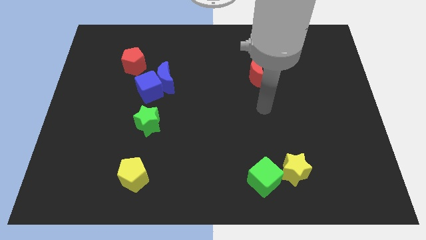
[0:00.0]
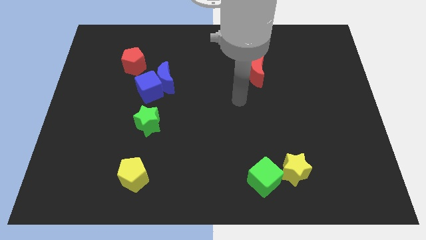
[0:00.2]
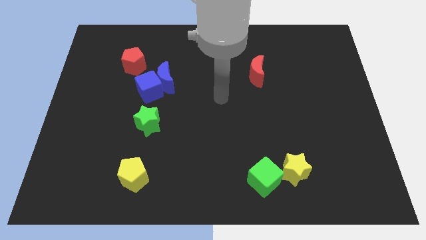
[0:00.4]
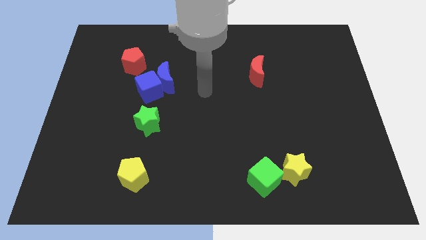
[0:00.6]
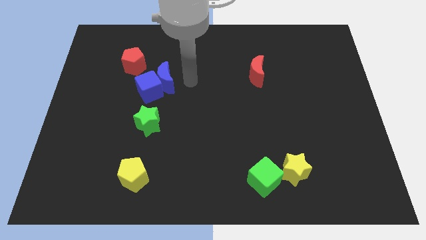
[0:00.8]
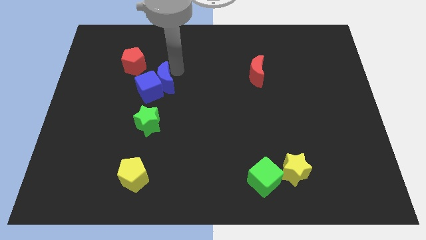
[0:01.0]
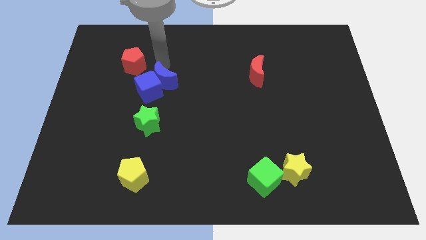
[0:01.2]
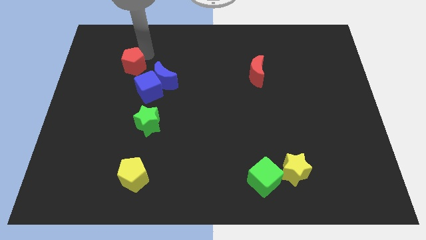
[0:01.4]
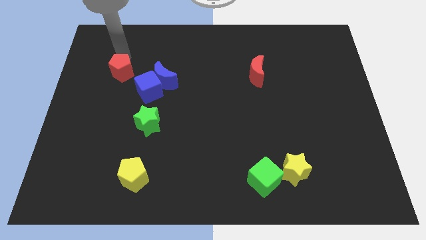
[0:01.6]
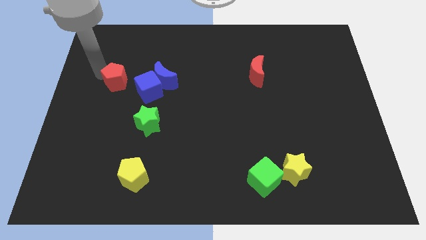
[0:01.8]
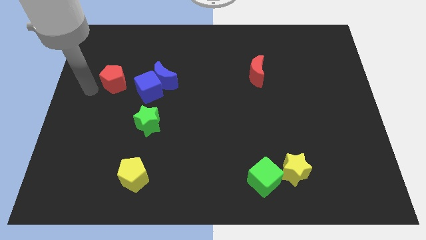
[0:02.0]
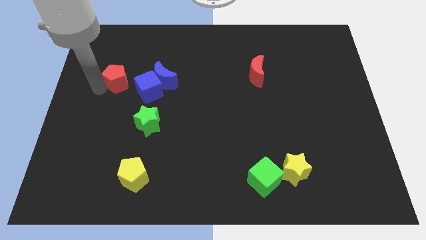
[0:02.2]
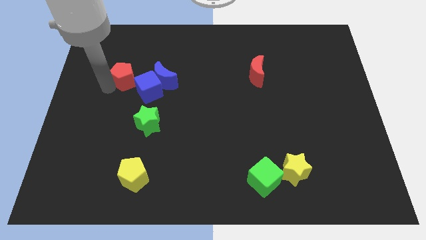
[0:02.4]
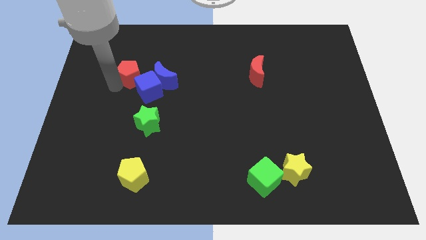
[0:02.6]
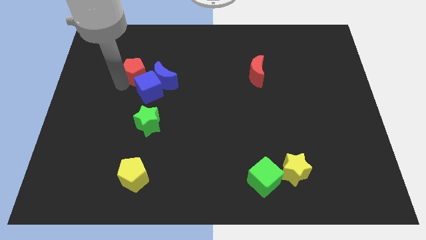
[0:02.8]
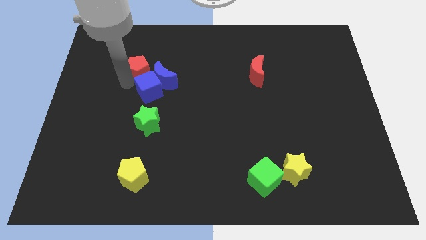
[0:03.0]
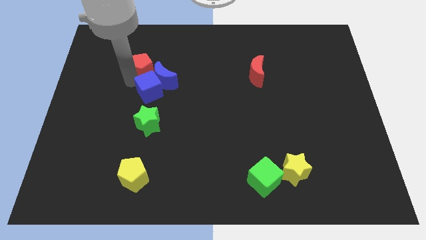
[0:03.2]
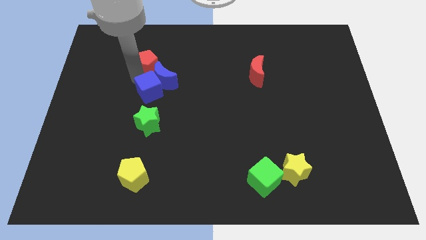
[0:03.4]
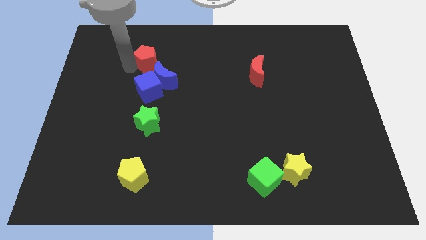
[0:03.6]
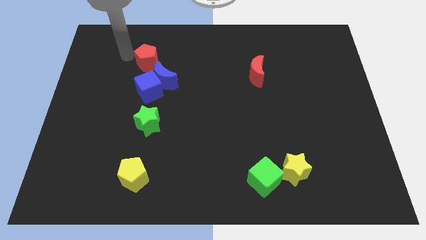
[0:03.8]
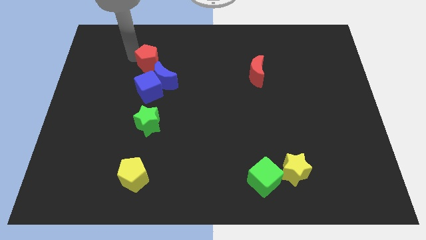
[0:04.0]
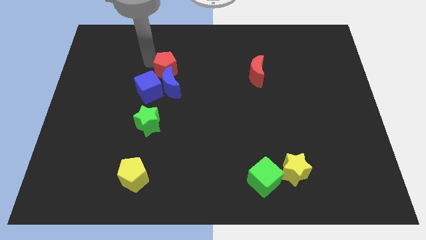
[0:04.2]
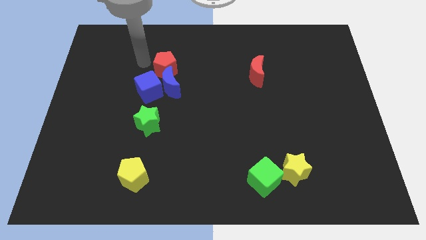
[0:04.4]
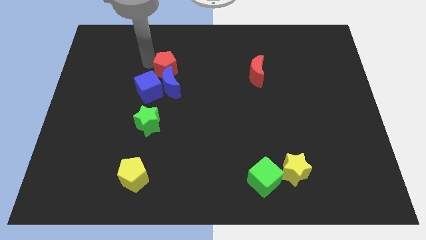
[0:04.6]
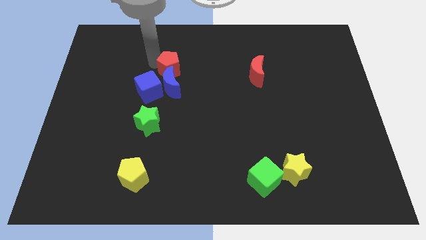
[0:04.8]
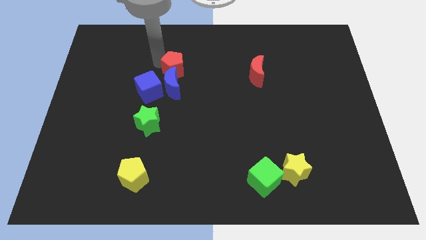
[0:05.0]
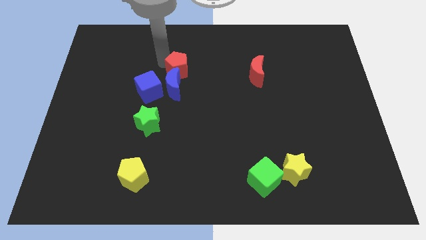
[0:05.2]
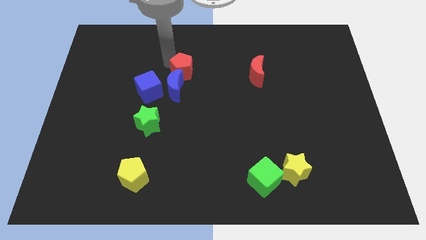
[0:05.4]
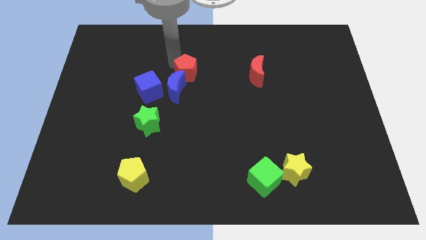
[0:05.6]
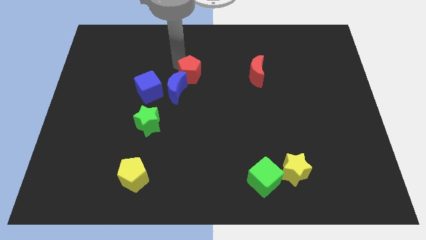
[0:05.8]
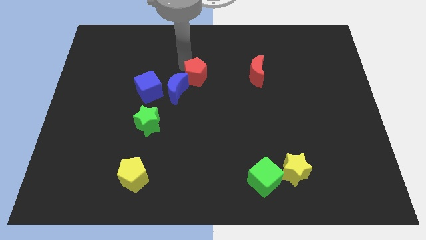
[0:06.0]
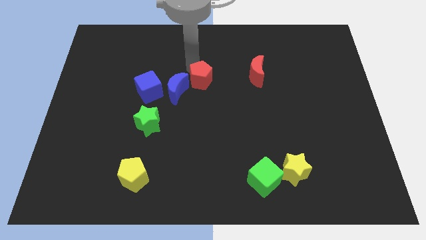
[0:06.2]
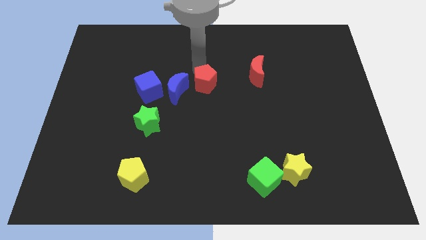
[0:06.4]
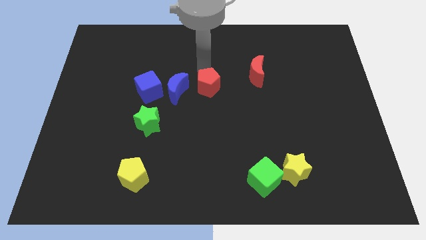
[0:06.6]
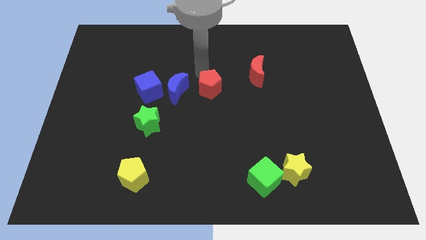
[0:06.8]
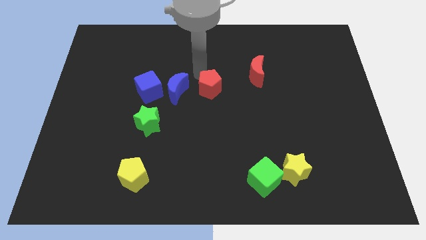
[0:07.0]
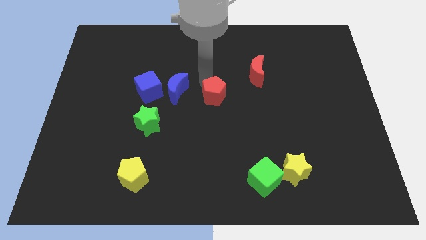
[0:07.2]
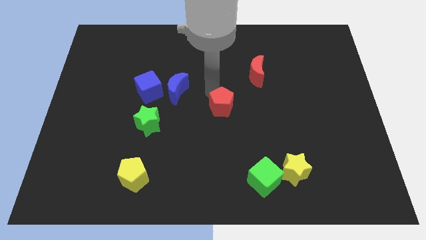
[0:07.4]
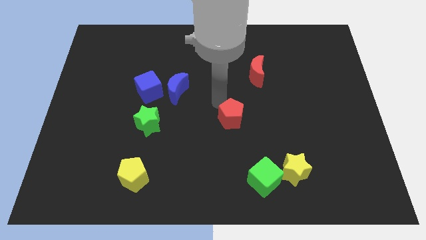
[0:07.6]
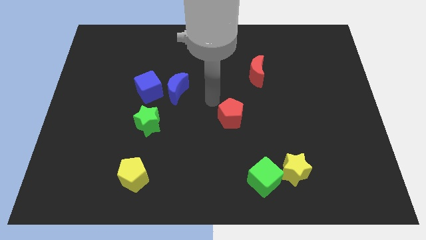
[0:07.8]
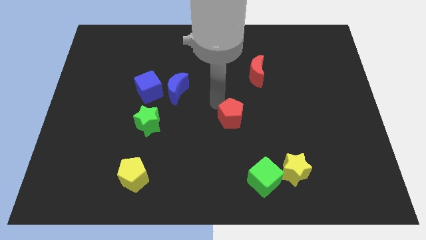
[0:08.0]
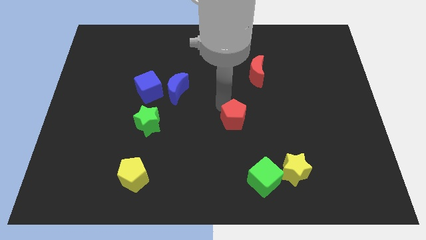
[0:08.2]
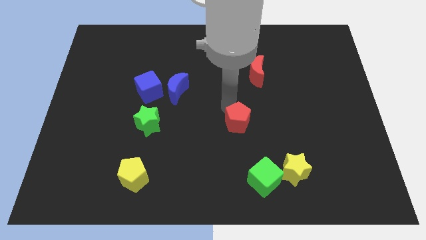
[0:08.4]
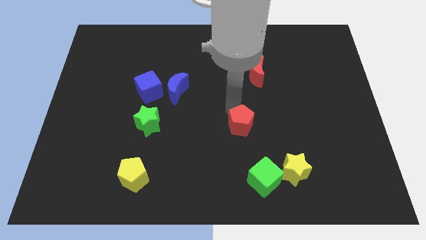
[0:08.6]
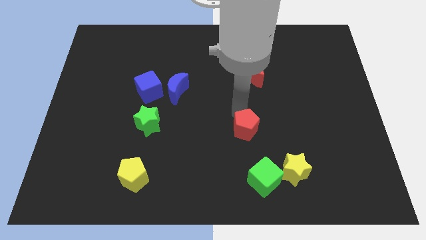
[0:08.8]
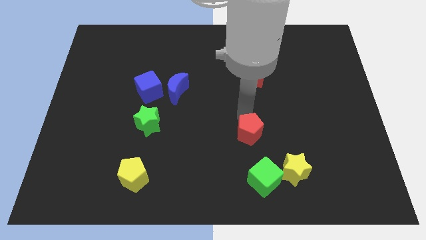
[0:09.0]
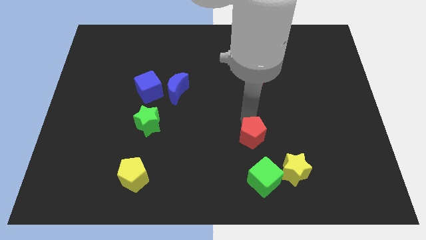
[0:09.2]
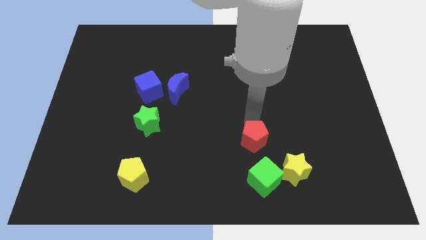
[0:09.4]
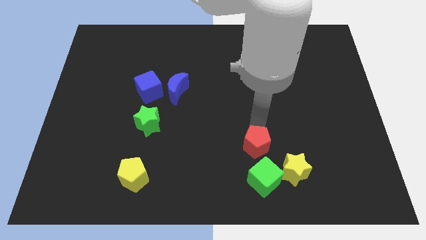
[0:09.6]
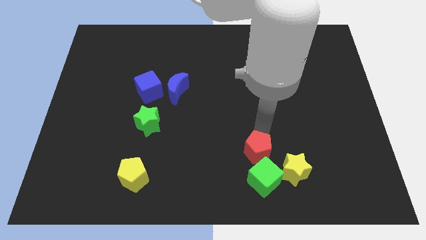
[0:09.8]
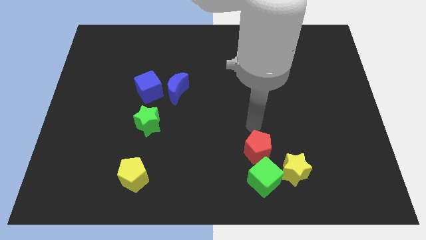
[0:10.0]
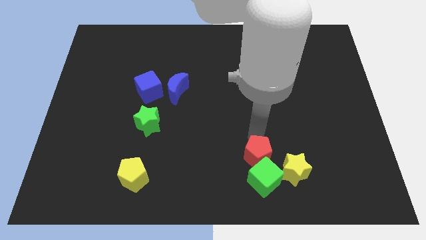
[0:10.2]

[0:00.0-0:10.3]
move the red pentagon next to the green cube
